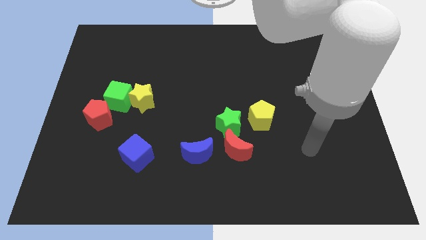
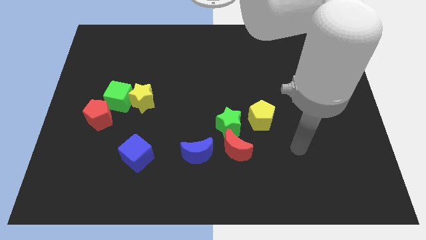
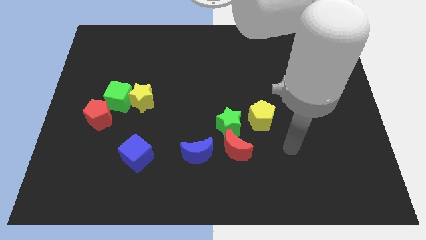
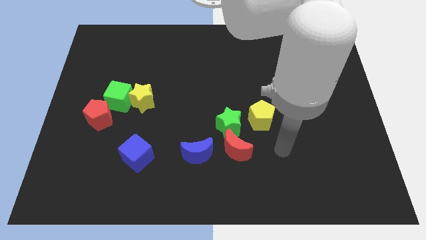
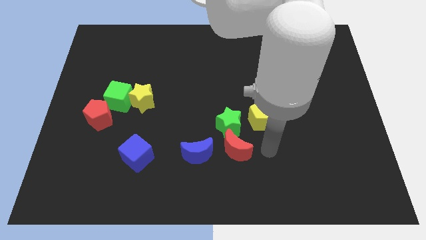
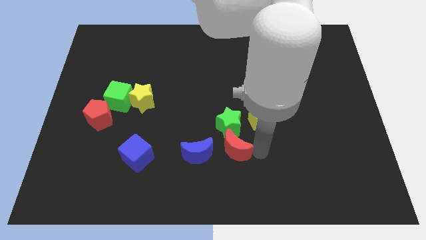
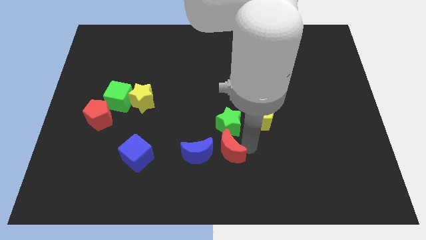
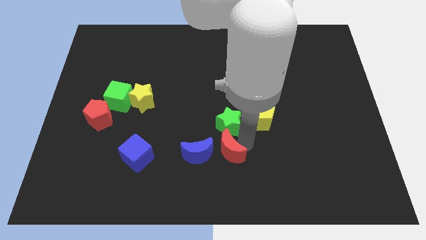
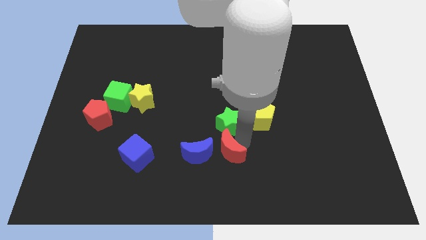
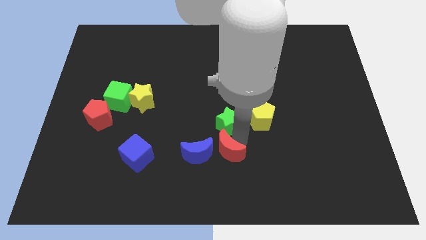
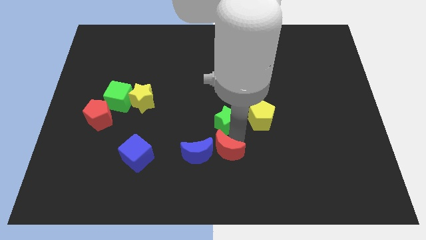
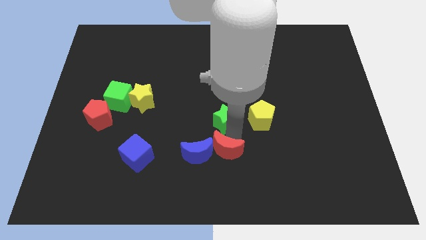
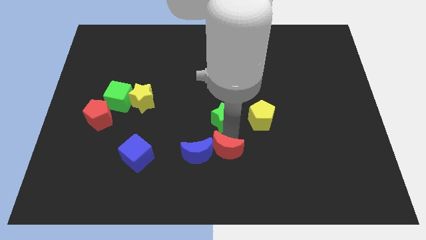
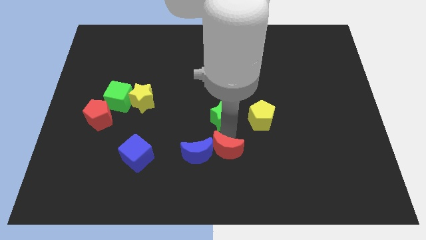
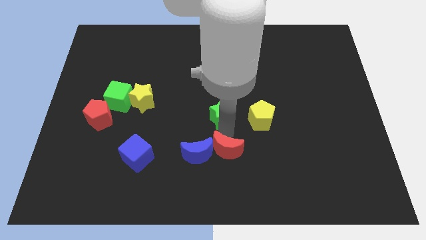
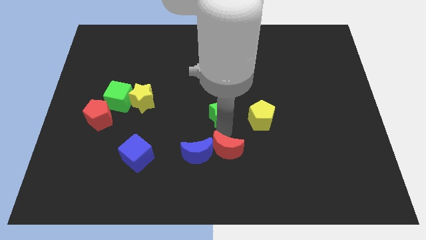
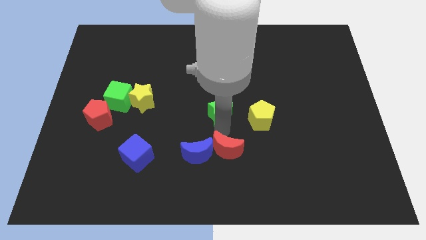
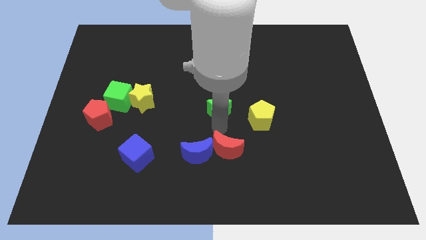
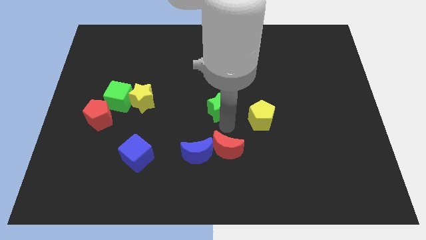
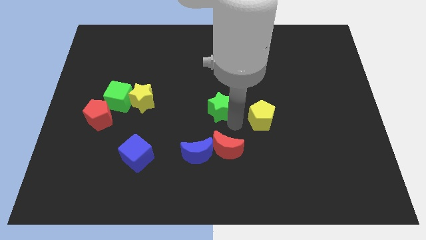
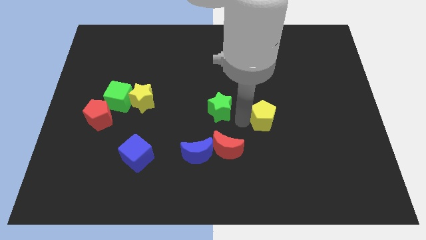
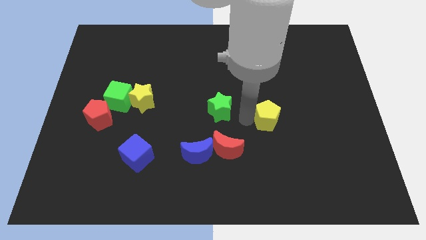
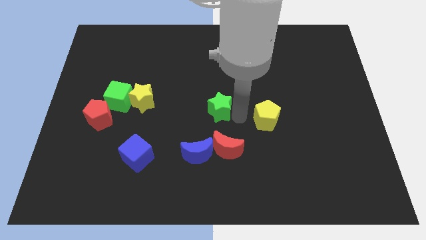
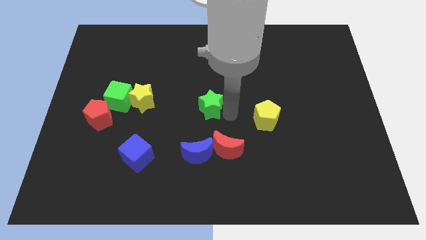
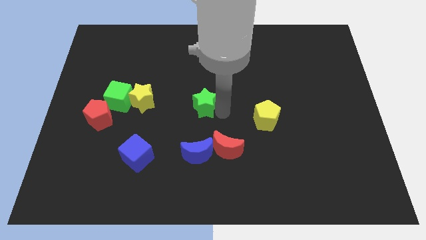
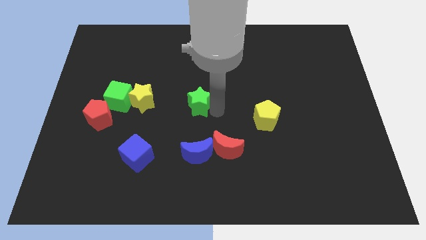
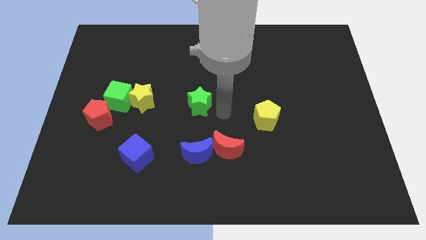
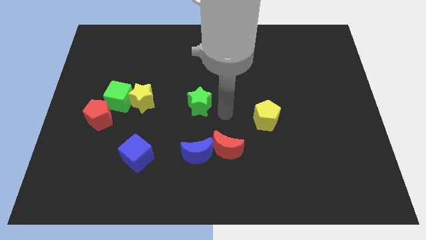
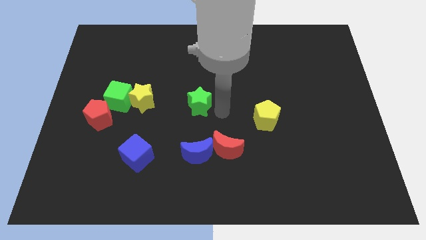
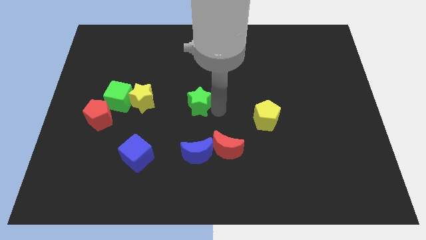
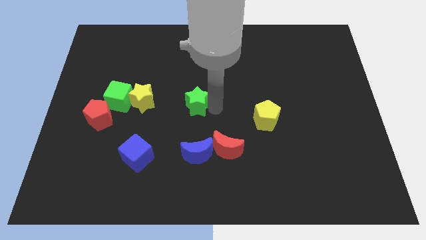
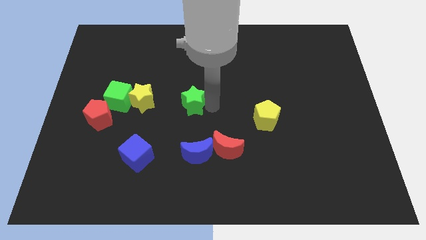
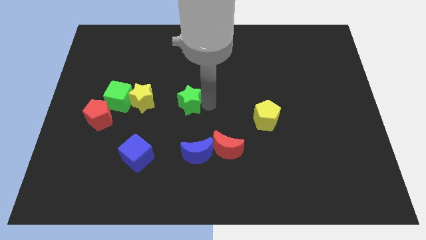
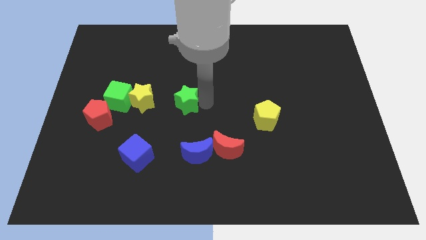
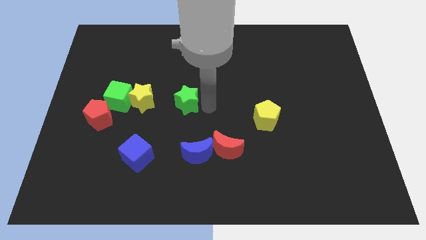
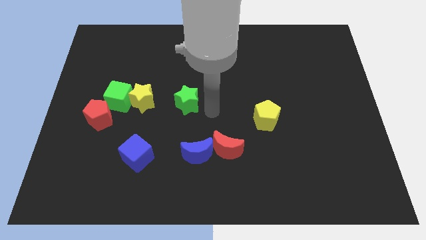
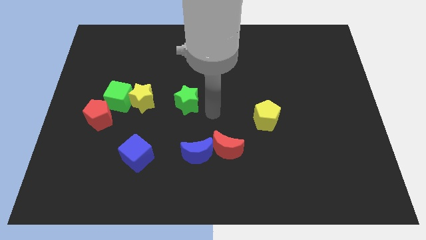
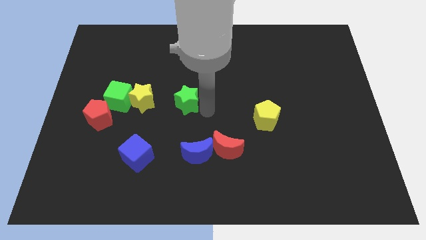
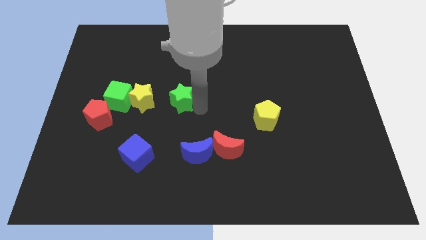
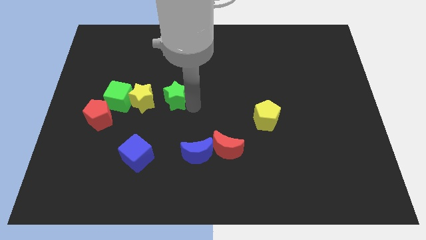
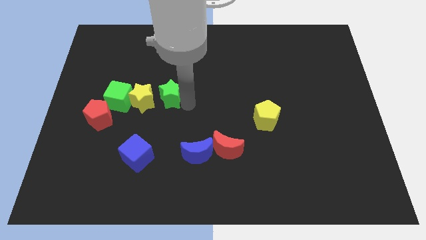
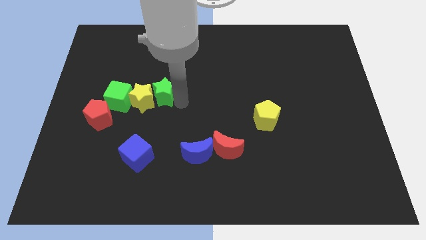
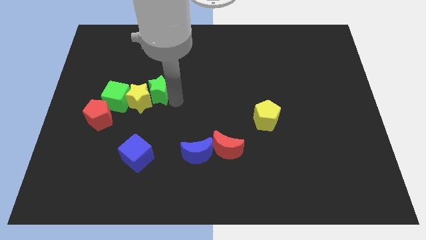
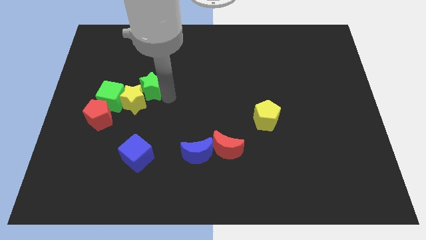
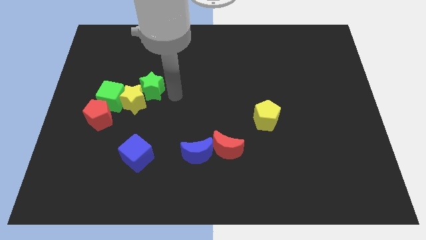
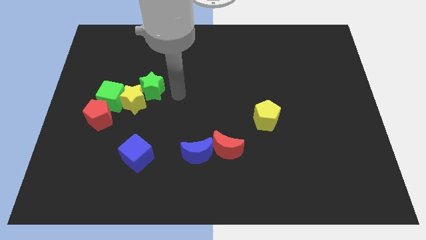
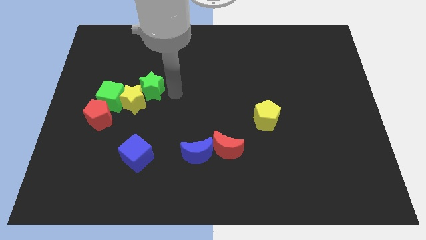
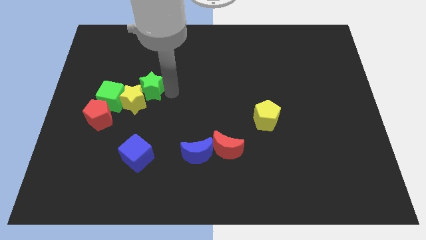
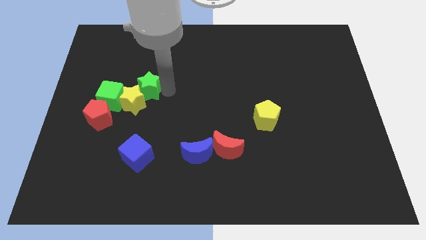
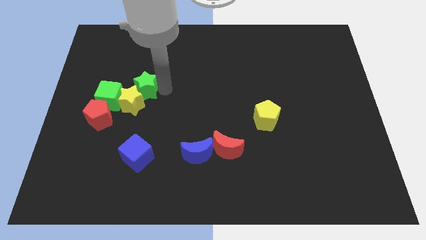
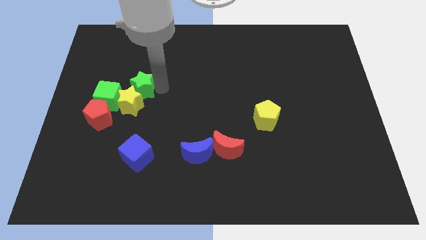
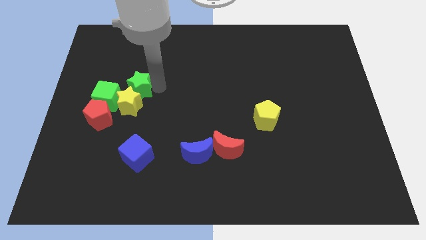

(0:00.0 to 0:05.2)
push the green star to the top left of the yellow star
